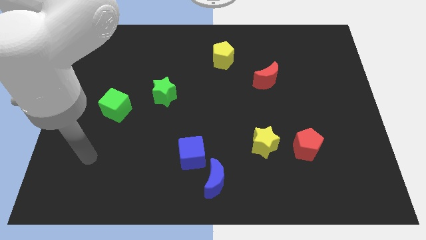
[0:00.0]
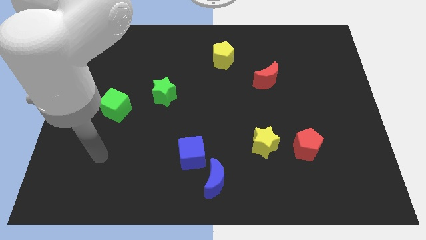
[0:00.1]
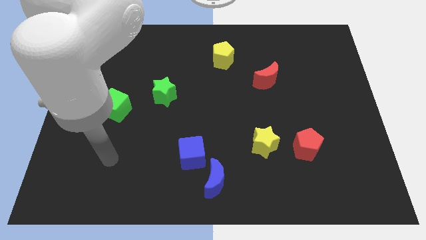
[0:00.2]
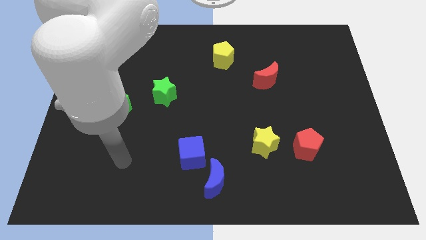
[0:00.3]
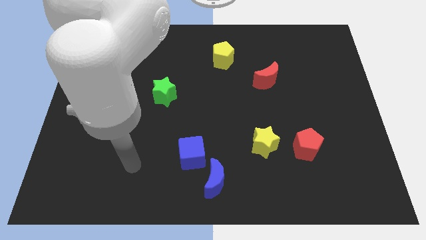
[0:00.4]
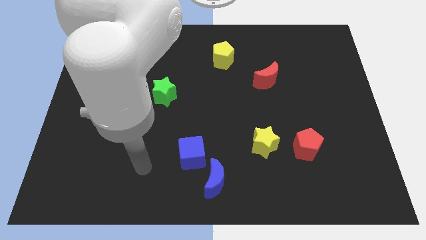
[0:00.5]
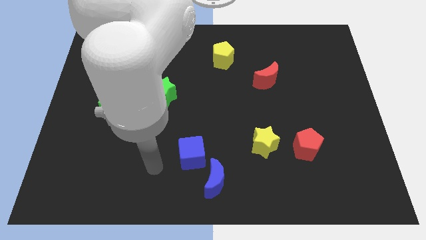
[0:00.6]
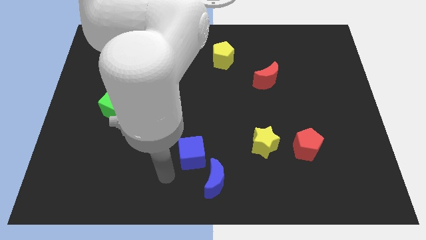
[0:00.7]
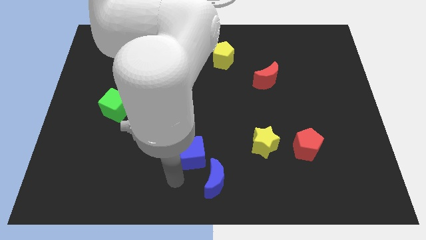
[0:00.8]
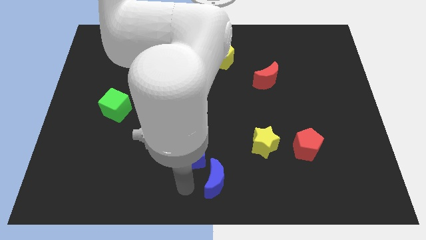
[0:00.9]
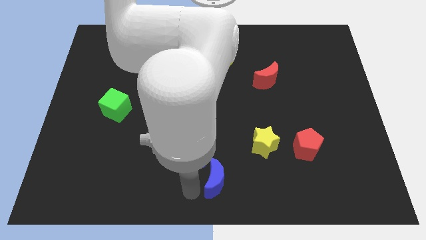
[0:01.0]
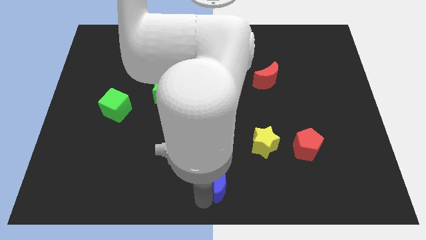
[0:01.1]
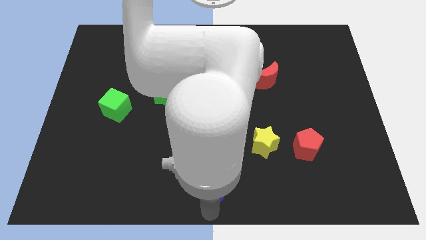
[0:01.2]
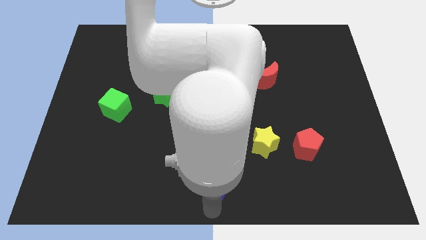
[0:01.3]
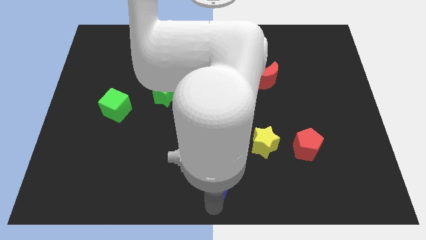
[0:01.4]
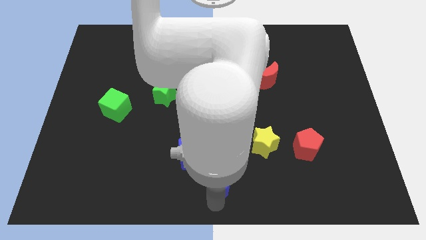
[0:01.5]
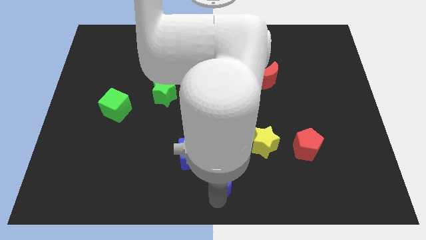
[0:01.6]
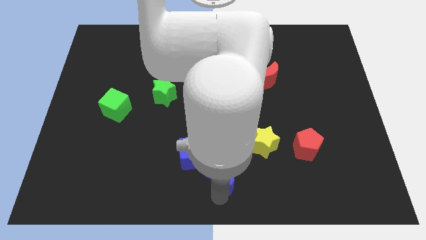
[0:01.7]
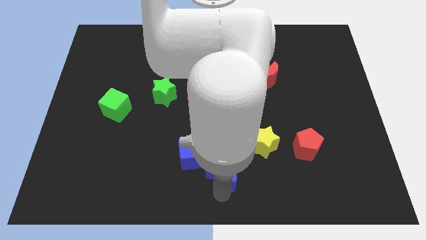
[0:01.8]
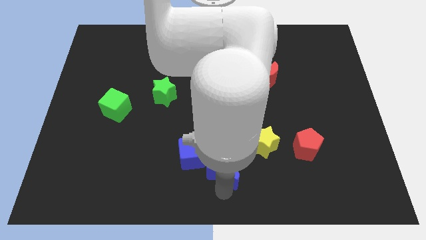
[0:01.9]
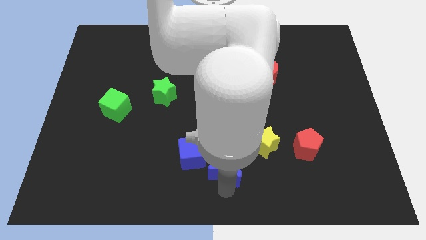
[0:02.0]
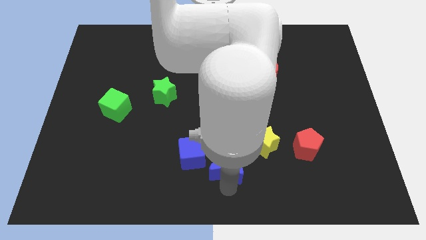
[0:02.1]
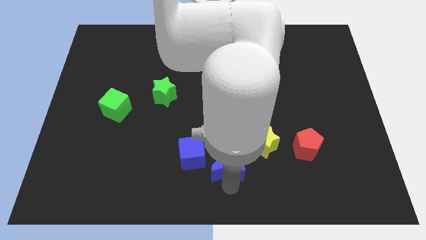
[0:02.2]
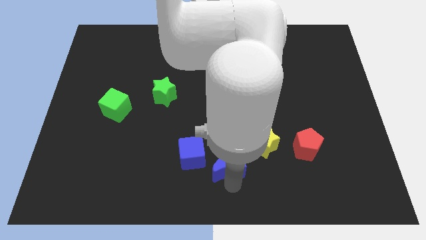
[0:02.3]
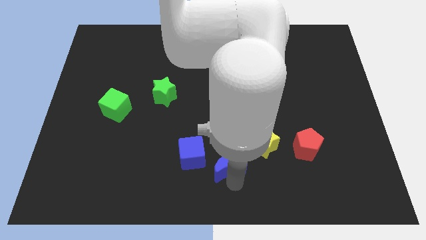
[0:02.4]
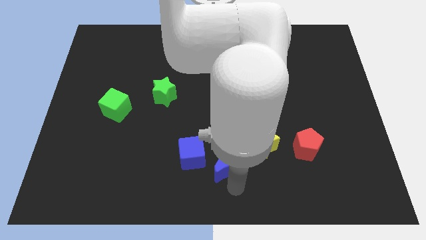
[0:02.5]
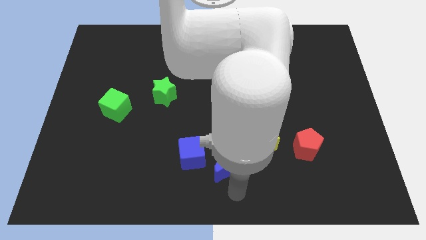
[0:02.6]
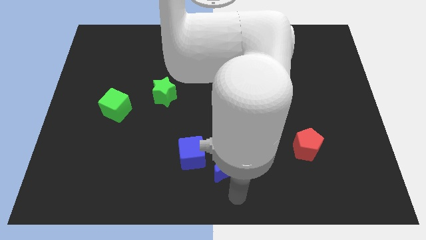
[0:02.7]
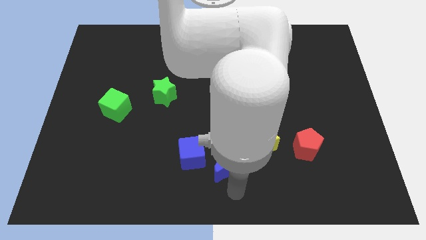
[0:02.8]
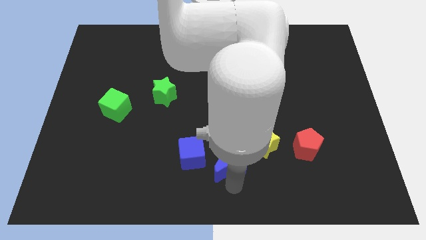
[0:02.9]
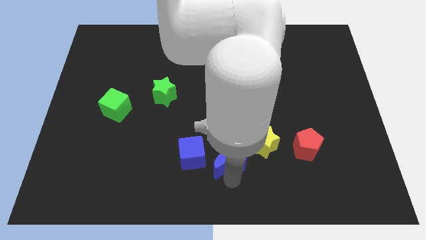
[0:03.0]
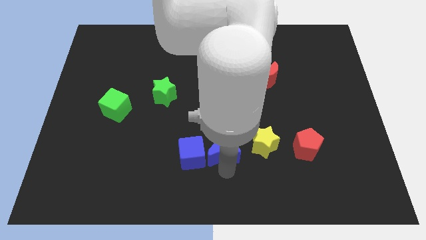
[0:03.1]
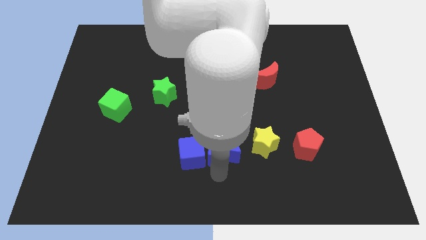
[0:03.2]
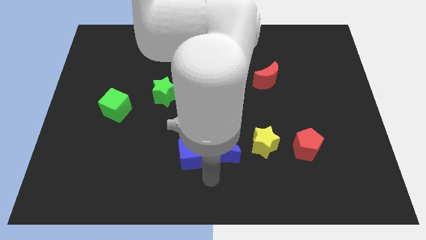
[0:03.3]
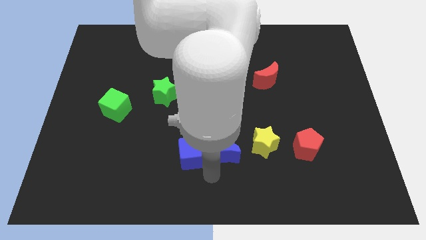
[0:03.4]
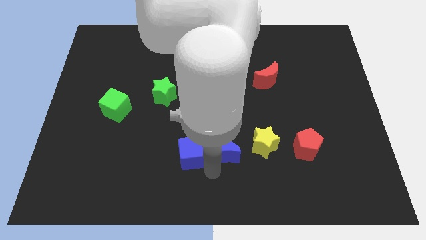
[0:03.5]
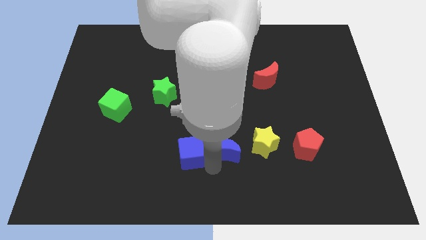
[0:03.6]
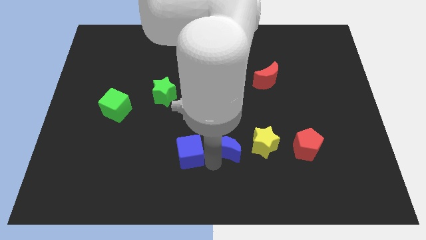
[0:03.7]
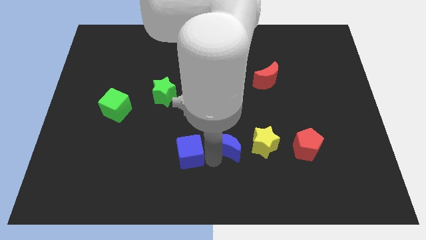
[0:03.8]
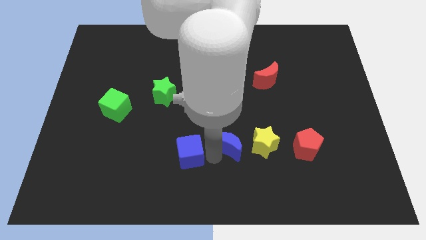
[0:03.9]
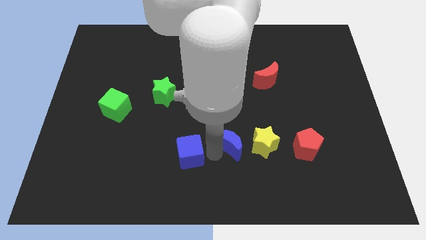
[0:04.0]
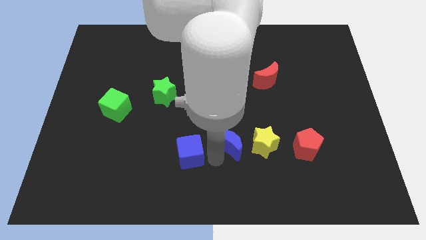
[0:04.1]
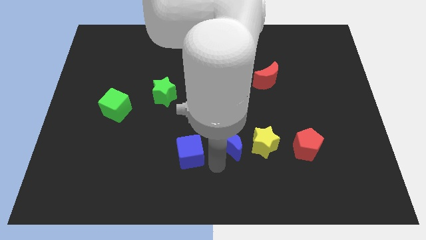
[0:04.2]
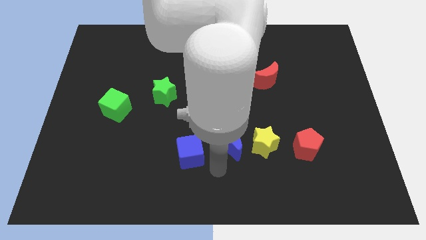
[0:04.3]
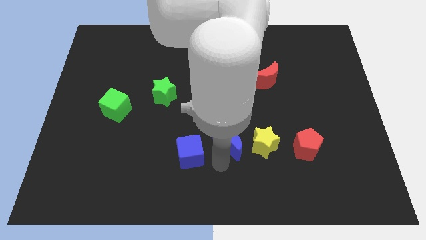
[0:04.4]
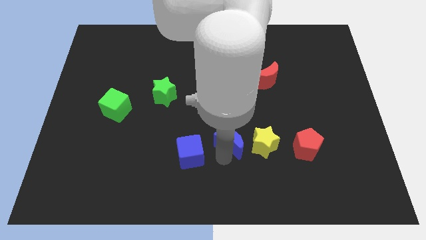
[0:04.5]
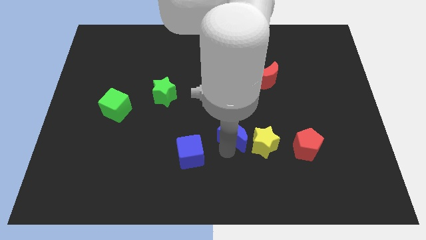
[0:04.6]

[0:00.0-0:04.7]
slide the blue moon to the top left side of the yellow star

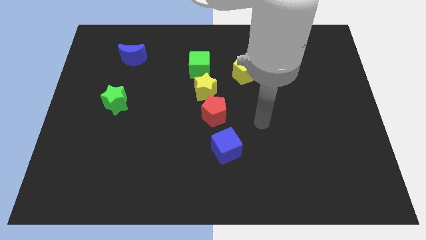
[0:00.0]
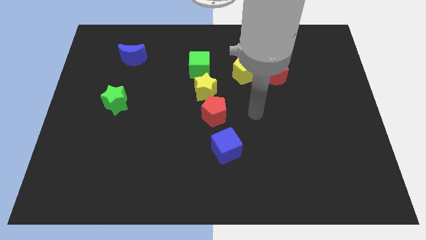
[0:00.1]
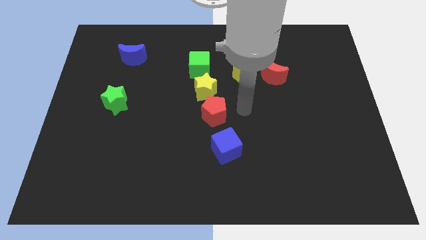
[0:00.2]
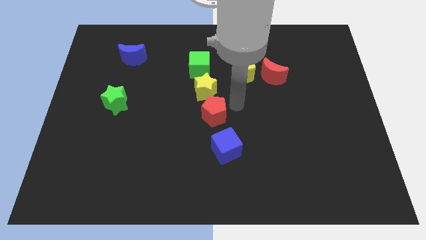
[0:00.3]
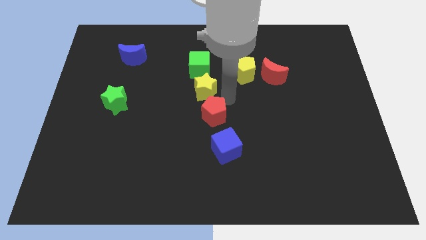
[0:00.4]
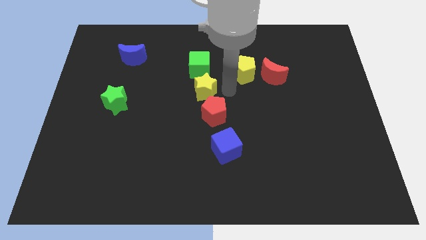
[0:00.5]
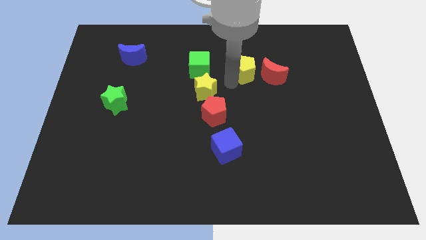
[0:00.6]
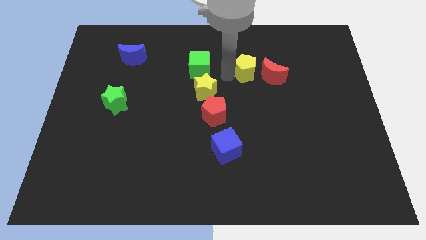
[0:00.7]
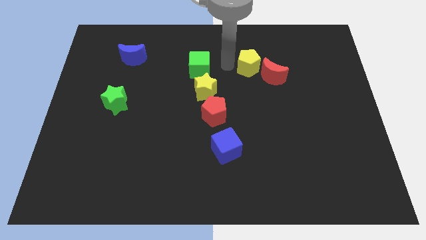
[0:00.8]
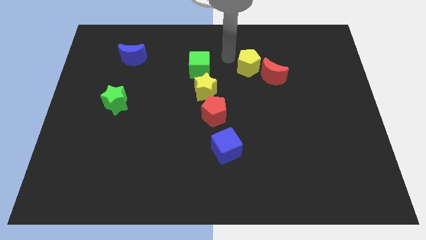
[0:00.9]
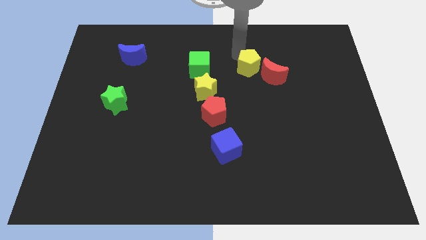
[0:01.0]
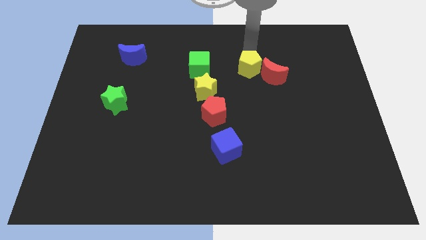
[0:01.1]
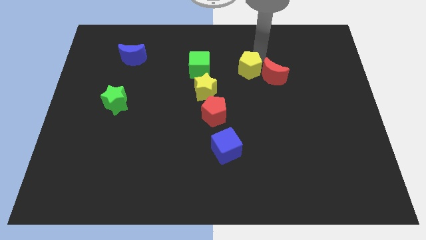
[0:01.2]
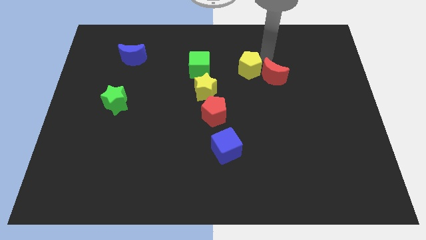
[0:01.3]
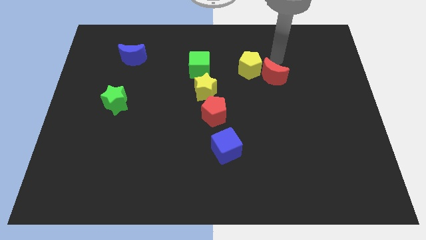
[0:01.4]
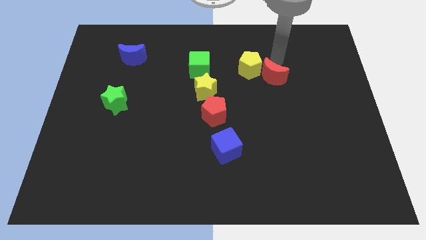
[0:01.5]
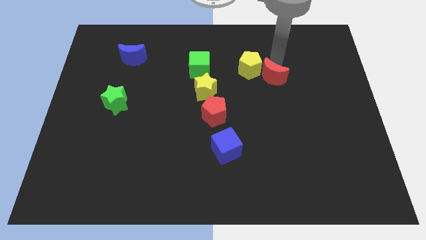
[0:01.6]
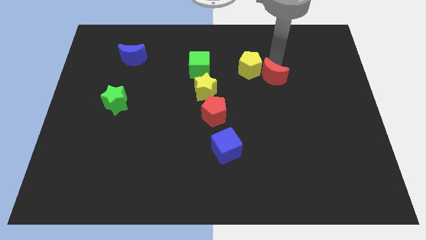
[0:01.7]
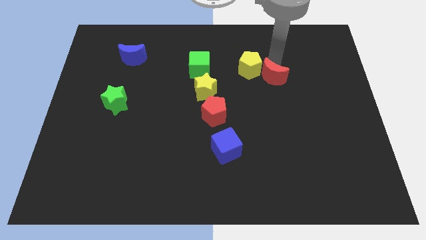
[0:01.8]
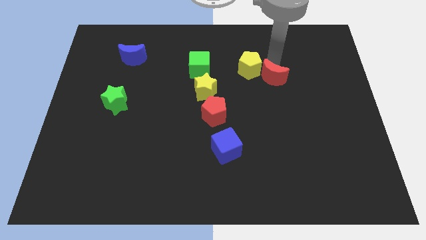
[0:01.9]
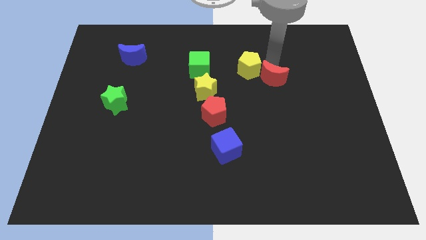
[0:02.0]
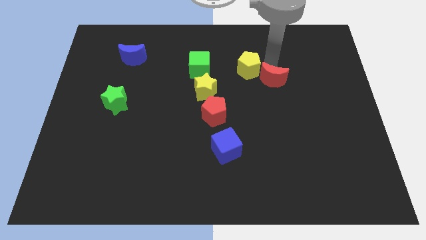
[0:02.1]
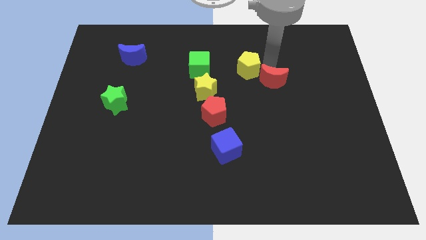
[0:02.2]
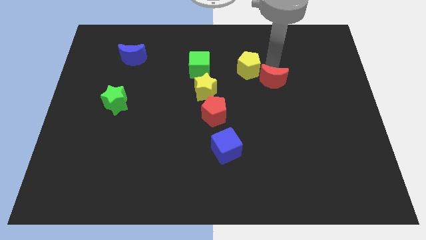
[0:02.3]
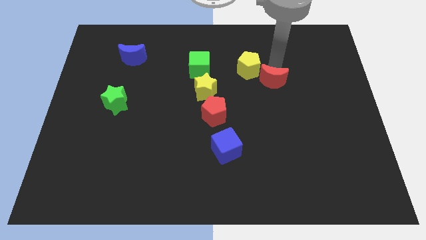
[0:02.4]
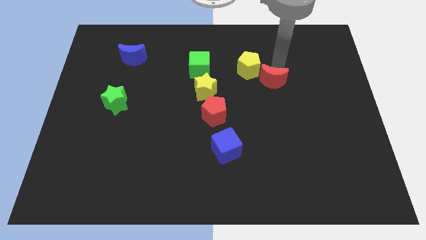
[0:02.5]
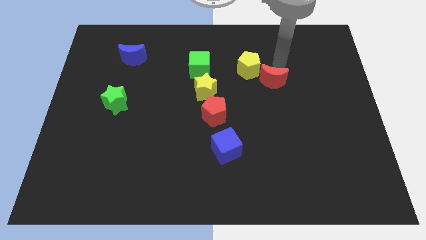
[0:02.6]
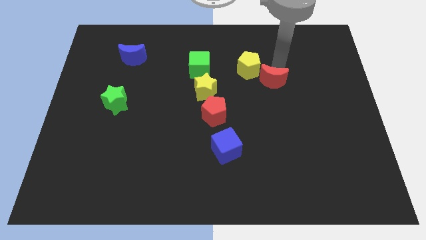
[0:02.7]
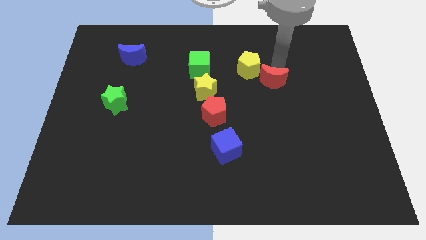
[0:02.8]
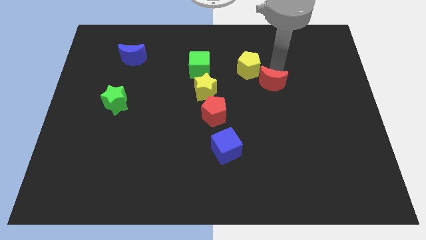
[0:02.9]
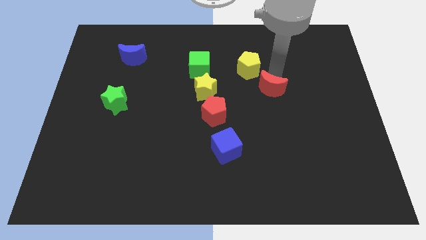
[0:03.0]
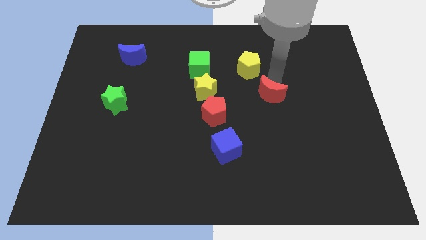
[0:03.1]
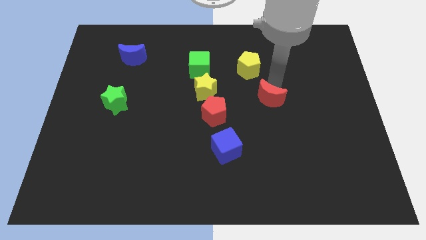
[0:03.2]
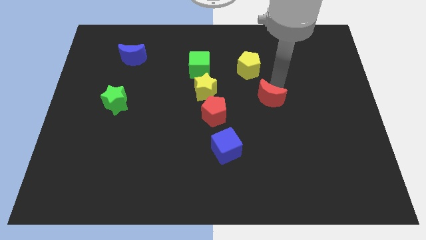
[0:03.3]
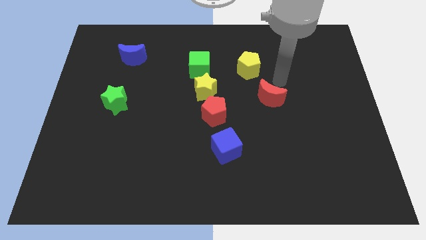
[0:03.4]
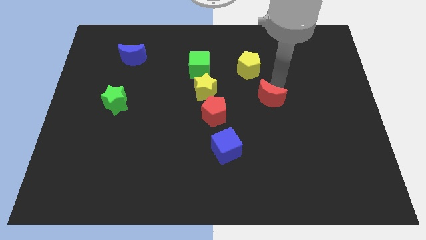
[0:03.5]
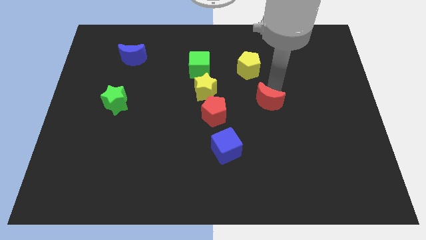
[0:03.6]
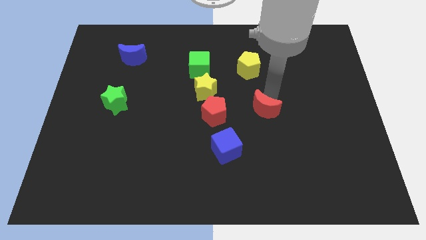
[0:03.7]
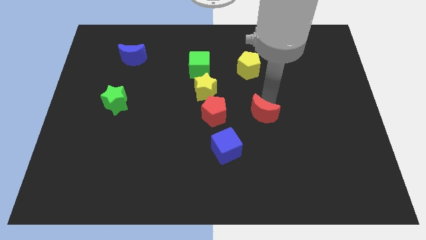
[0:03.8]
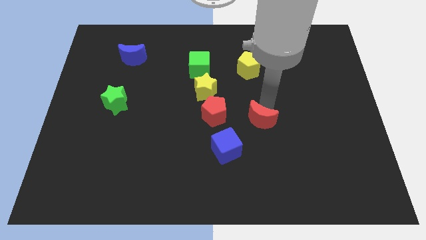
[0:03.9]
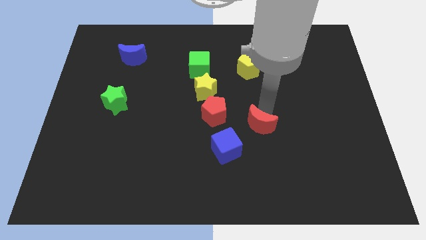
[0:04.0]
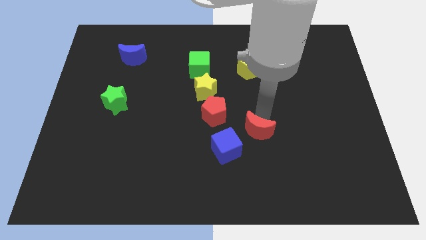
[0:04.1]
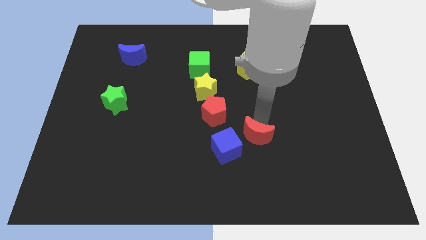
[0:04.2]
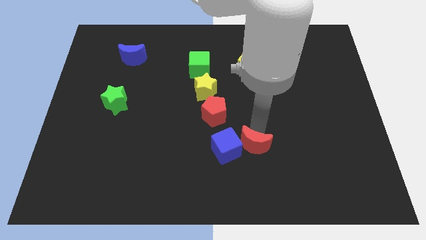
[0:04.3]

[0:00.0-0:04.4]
slide the red moon diagonally down and to the right of the blue cube
